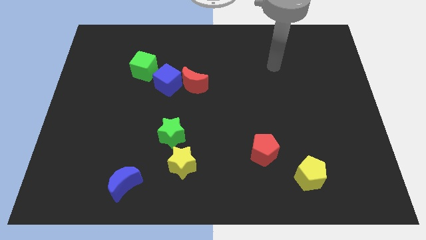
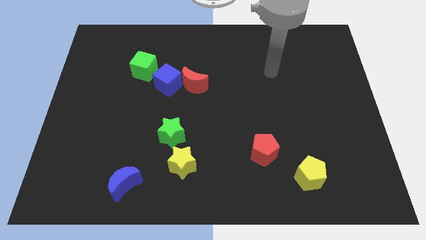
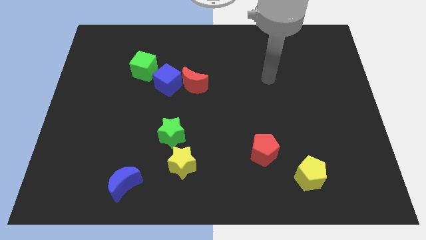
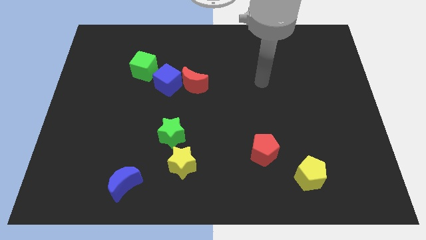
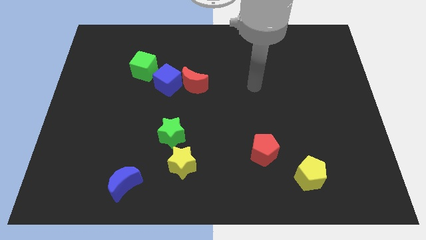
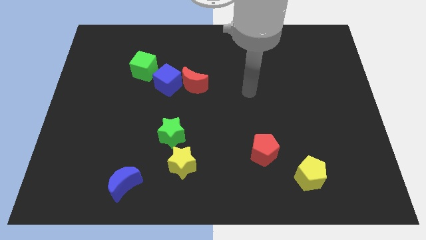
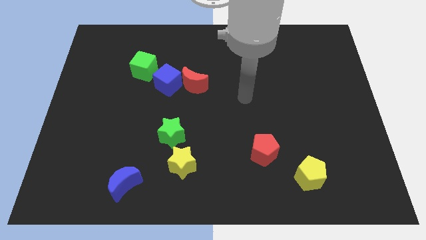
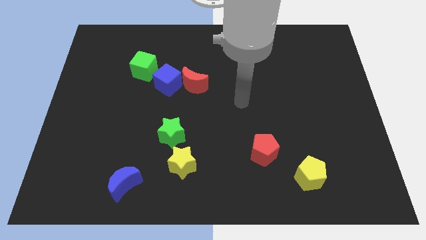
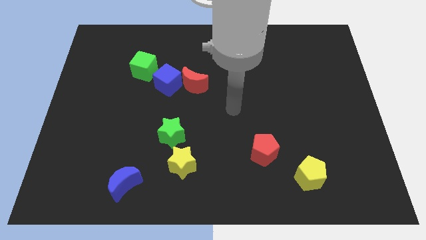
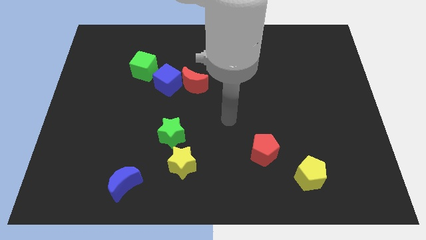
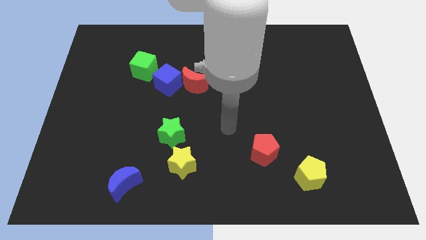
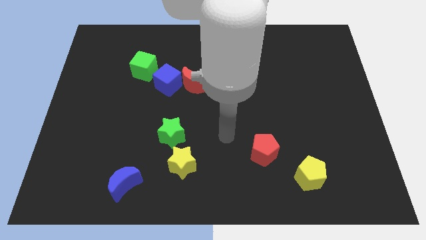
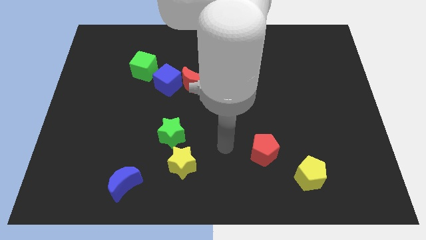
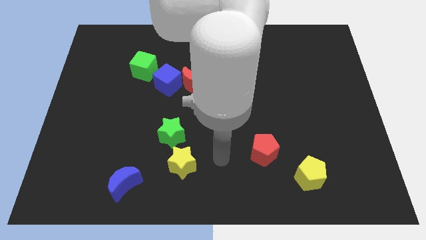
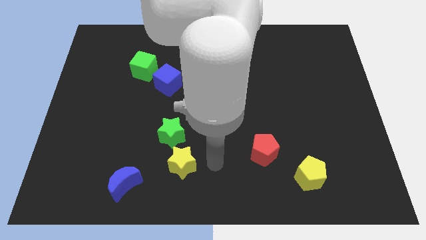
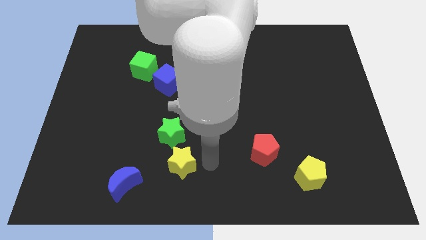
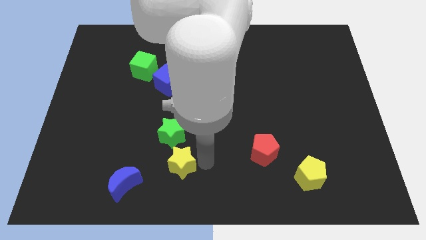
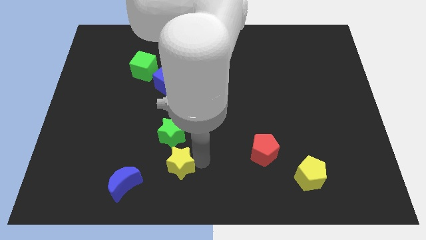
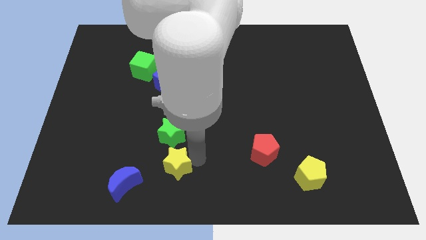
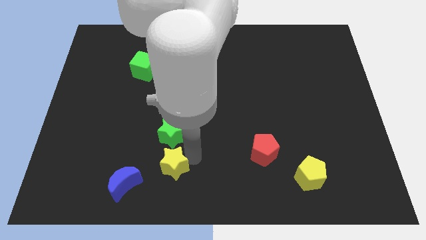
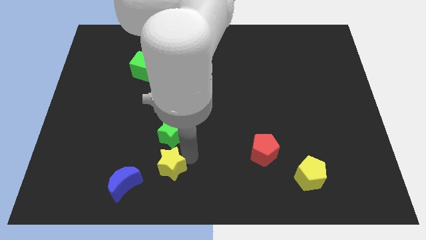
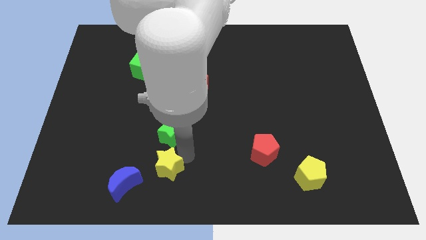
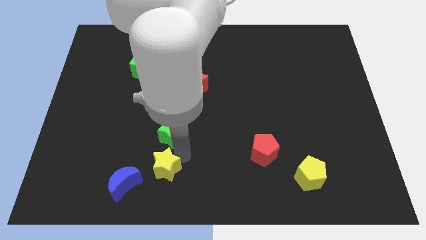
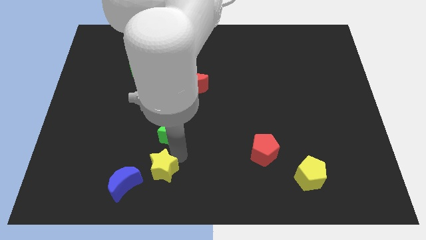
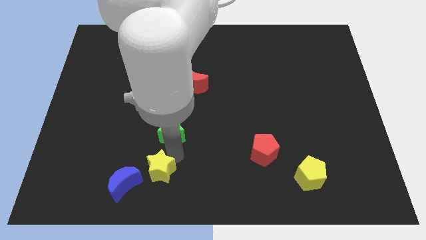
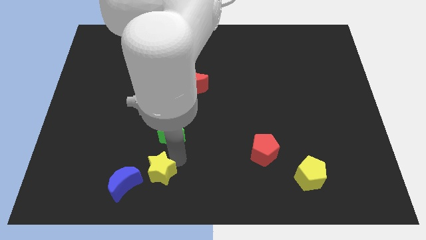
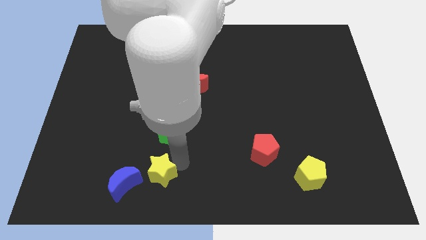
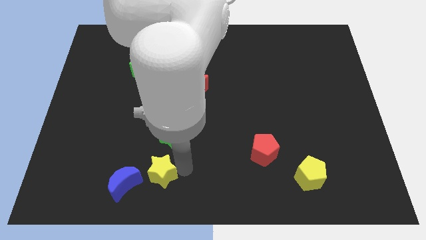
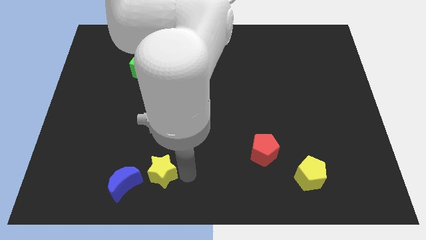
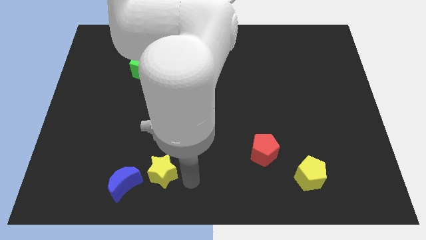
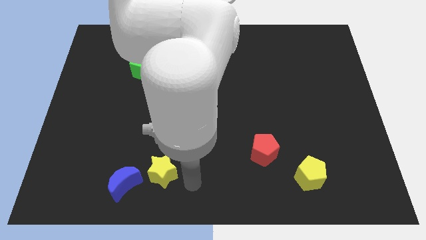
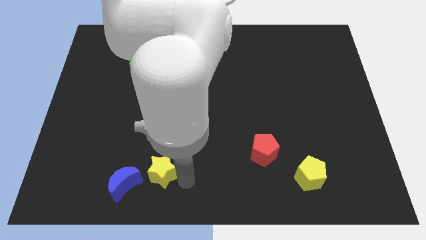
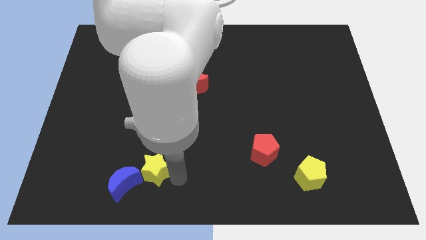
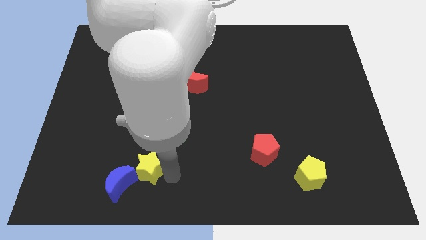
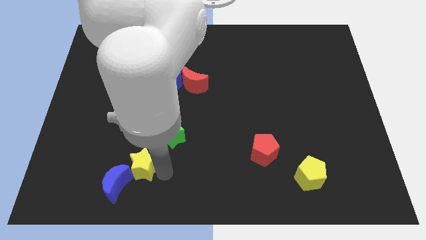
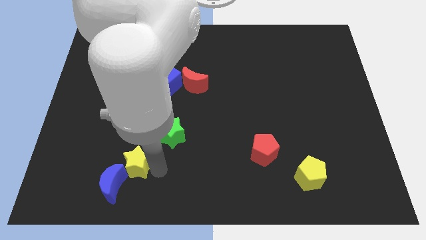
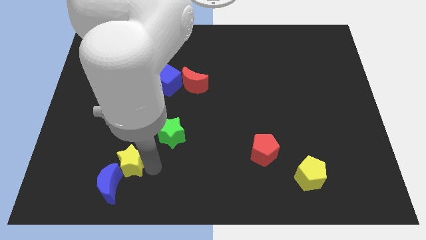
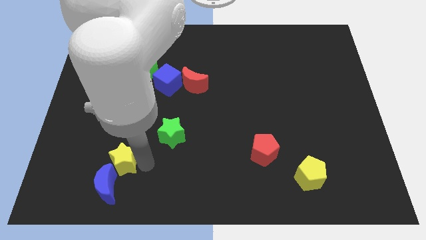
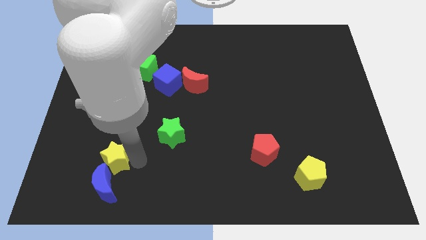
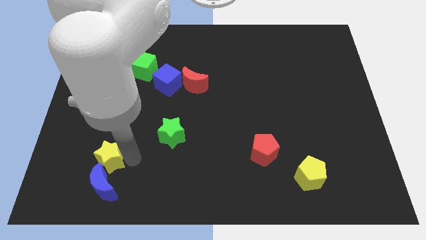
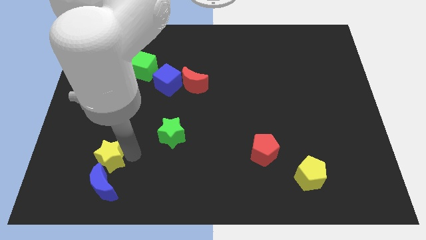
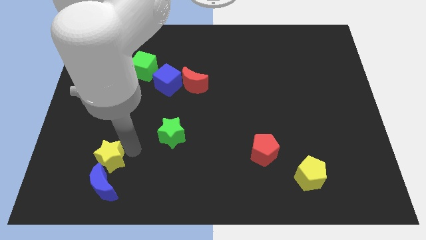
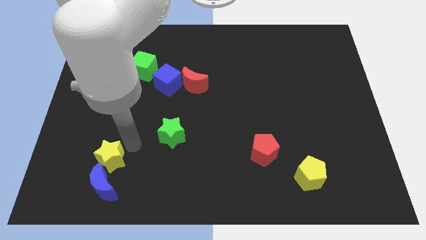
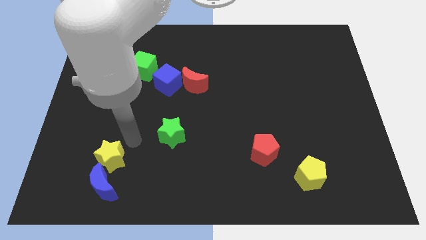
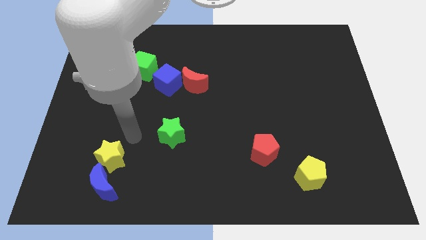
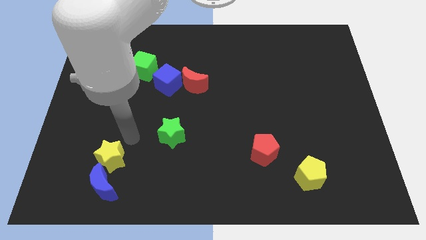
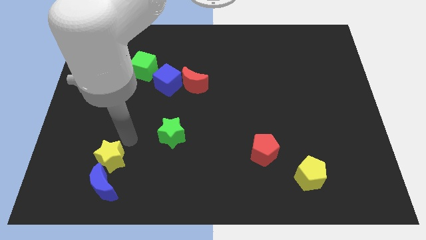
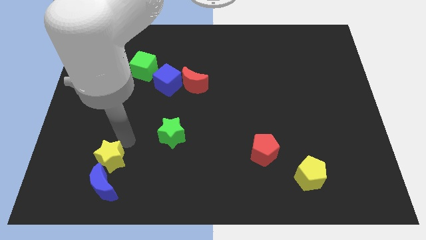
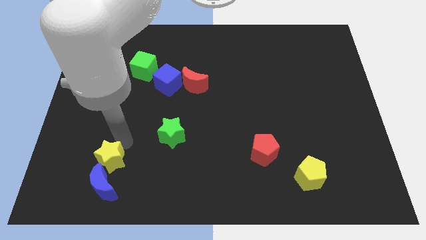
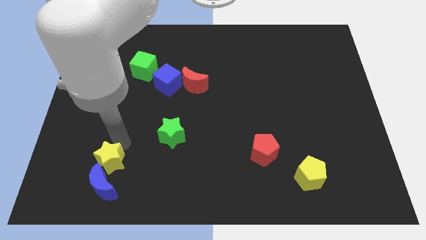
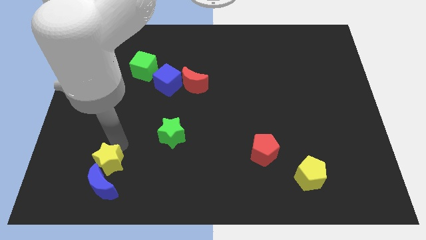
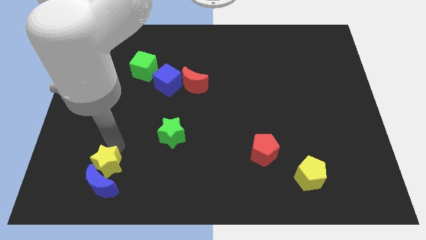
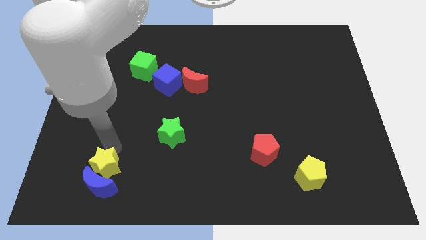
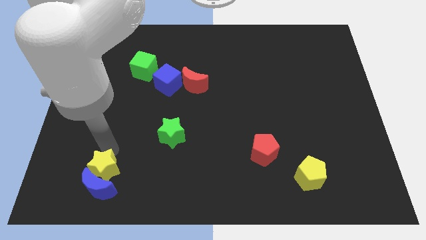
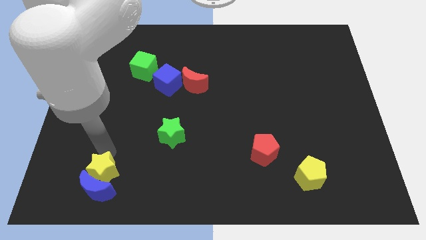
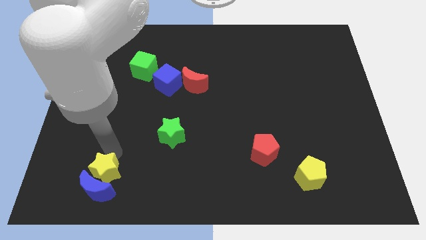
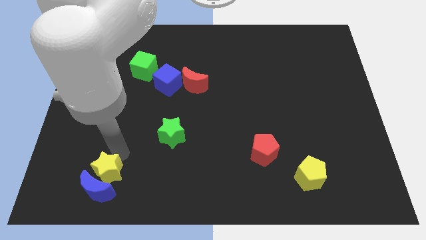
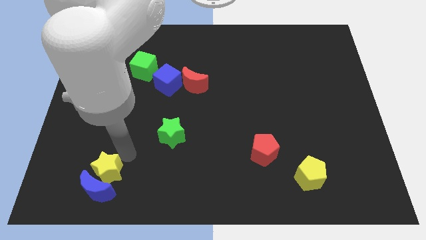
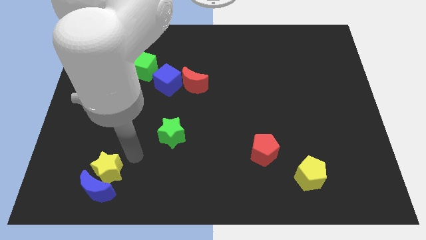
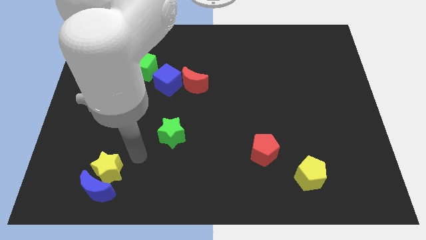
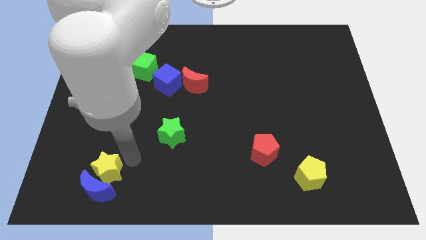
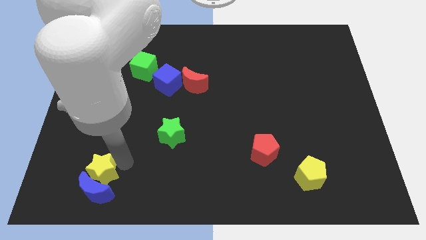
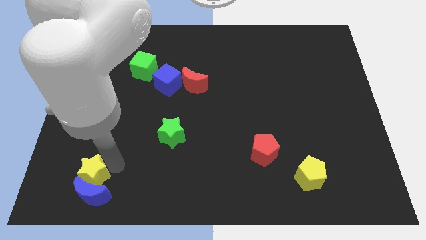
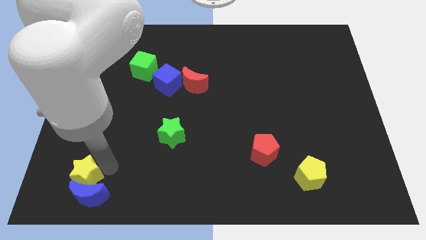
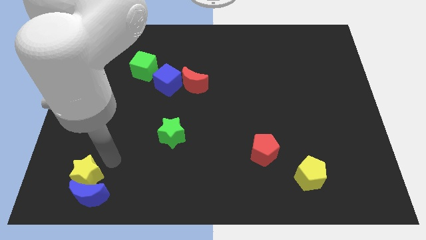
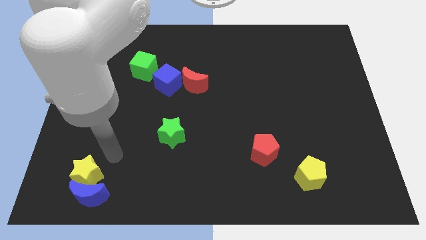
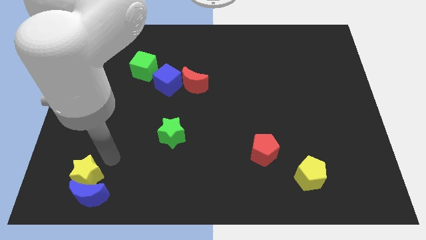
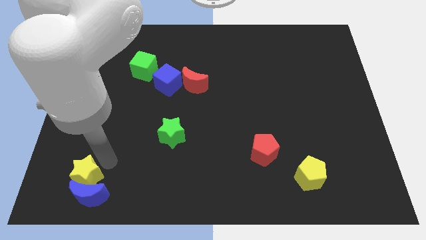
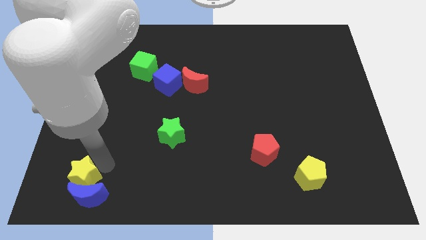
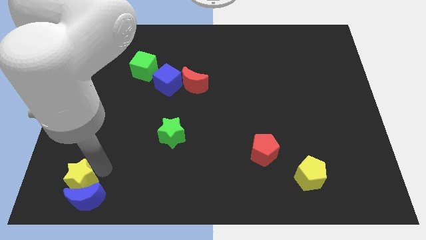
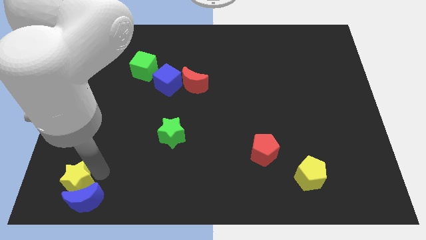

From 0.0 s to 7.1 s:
put the yellow star to the lower left corner
